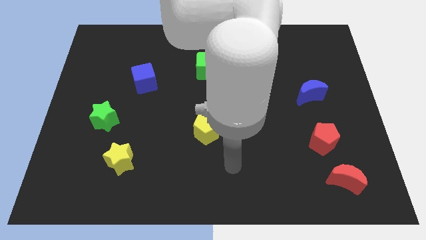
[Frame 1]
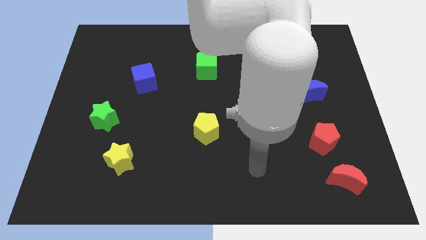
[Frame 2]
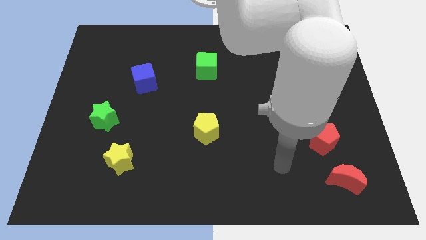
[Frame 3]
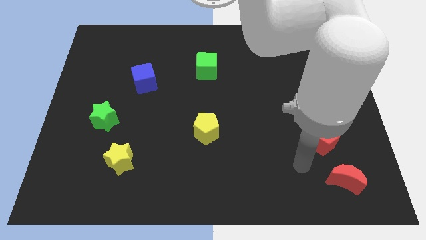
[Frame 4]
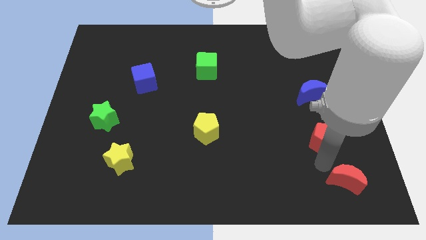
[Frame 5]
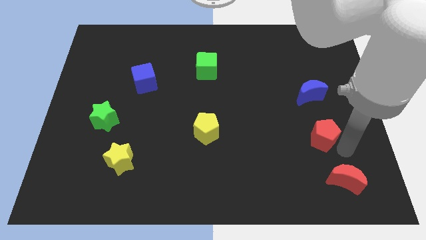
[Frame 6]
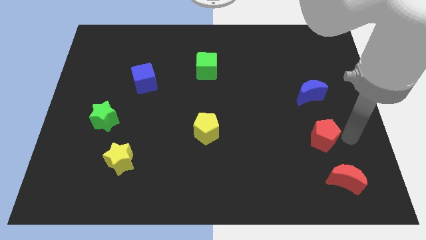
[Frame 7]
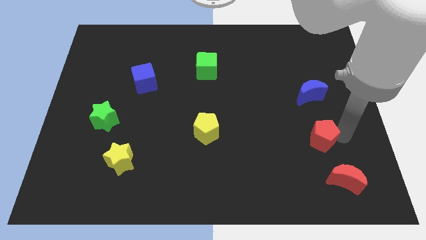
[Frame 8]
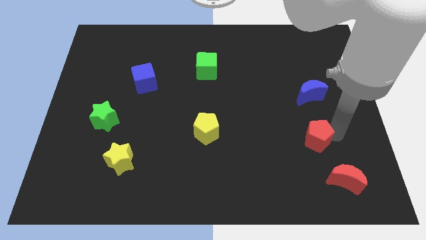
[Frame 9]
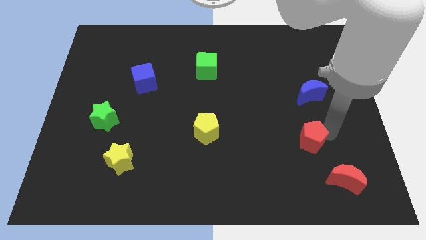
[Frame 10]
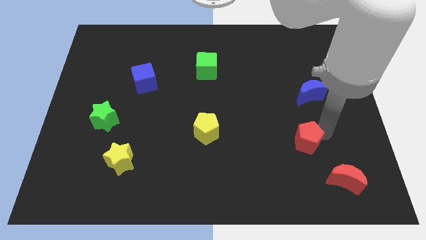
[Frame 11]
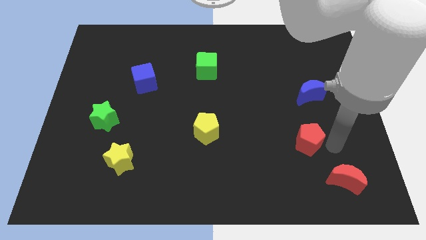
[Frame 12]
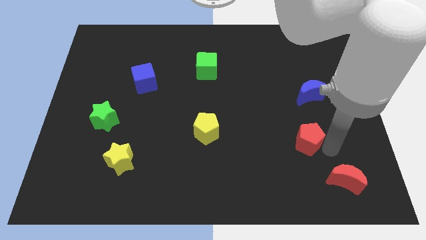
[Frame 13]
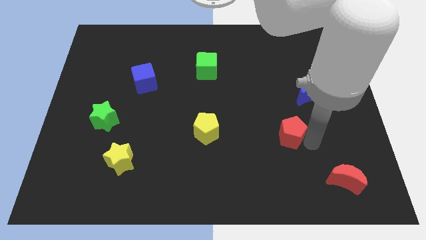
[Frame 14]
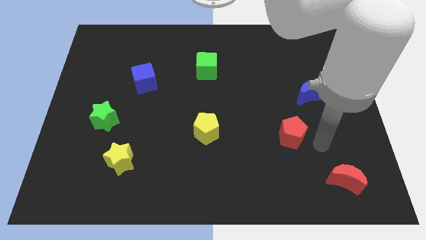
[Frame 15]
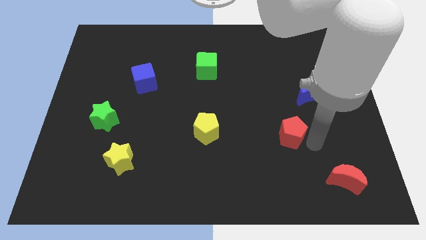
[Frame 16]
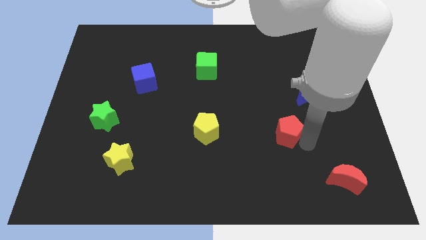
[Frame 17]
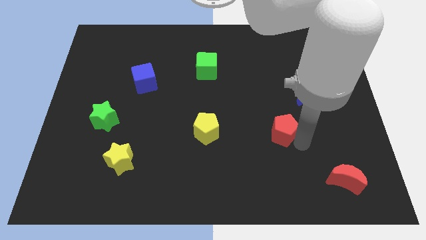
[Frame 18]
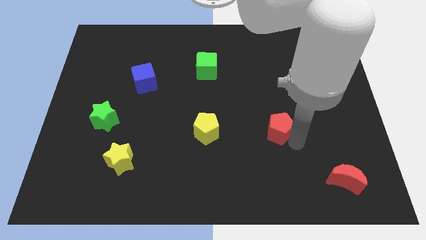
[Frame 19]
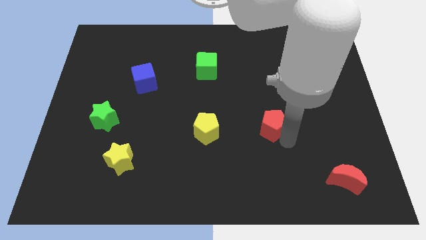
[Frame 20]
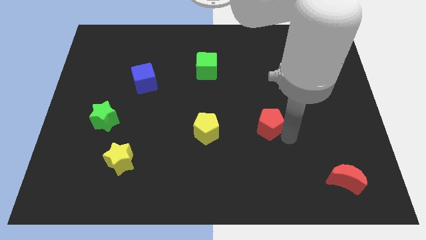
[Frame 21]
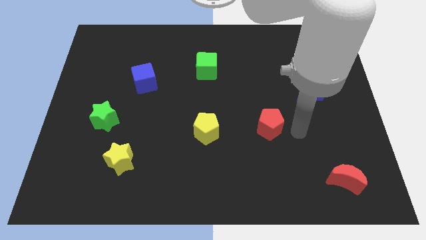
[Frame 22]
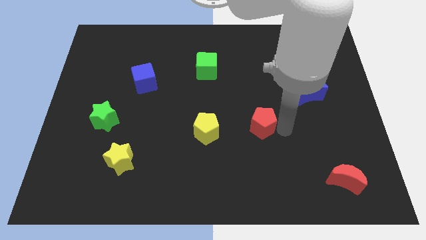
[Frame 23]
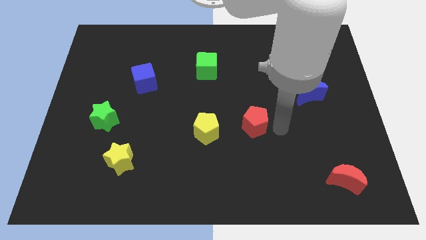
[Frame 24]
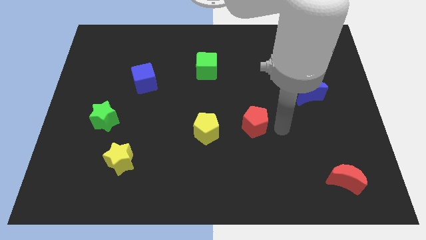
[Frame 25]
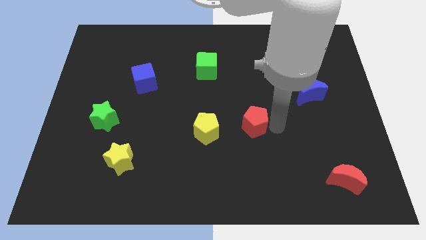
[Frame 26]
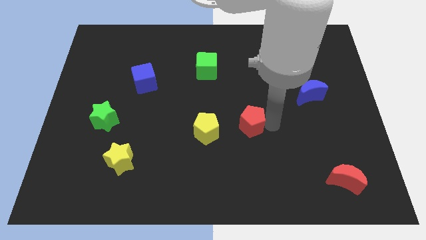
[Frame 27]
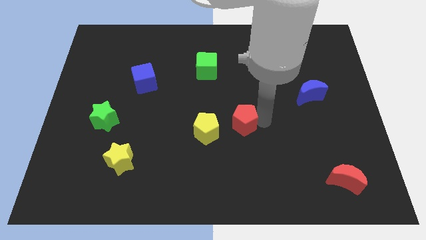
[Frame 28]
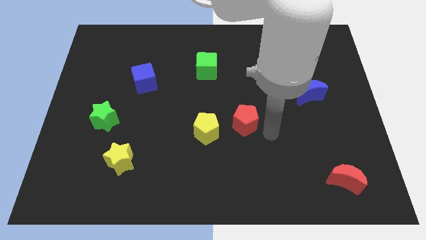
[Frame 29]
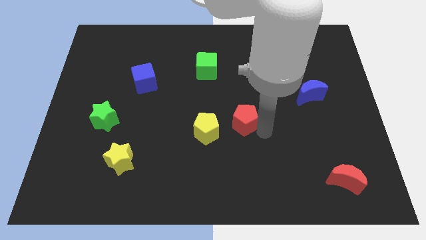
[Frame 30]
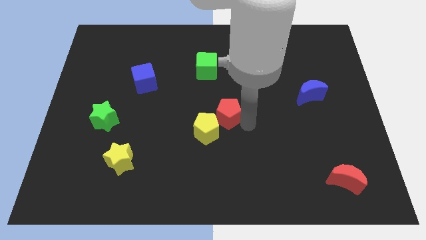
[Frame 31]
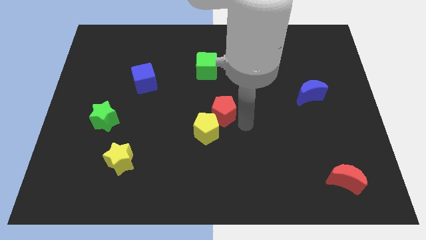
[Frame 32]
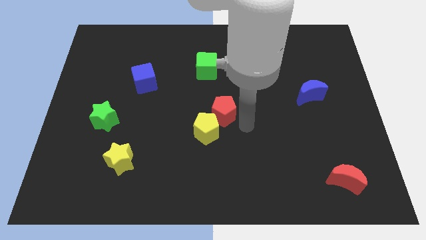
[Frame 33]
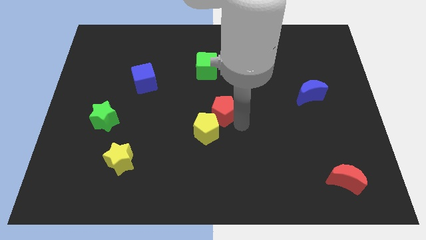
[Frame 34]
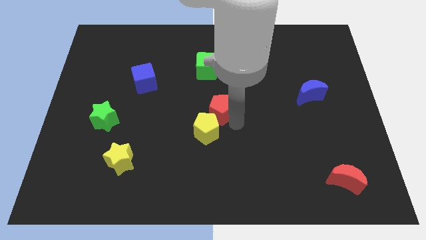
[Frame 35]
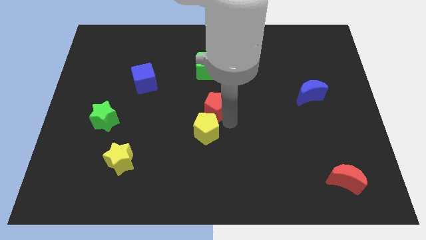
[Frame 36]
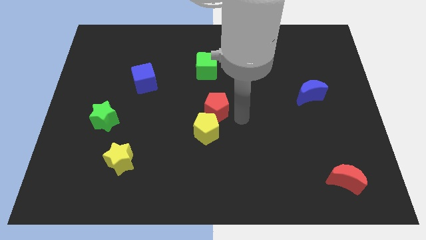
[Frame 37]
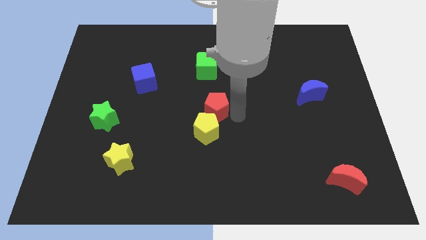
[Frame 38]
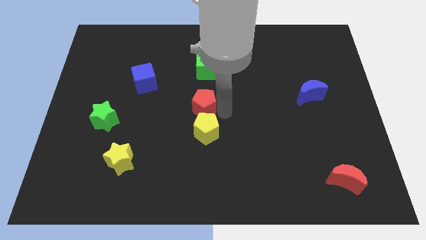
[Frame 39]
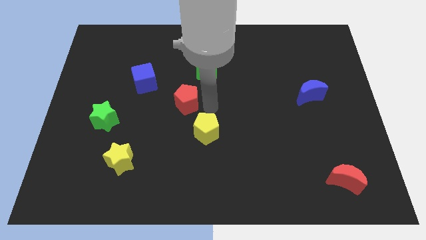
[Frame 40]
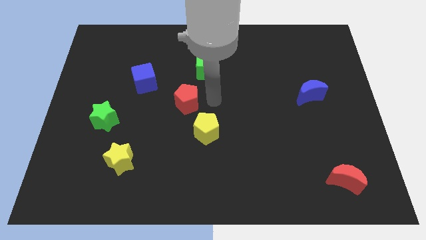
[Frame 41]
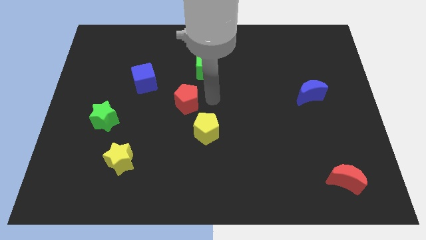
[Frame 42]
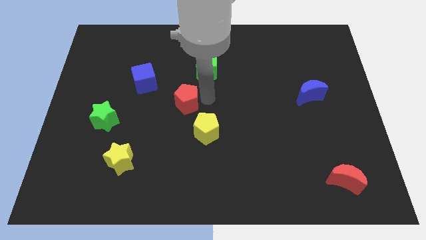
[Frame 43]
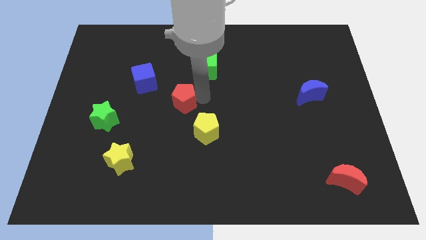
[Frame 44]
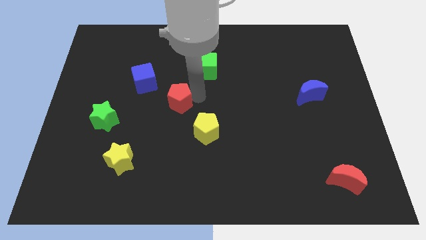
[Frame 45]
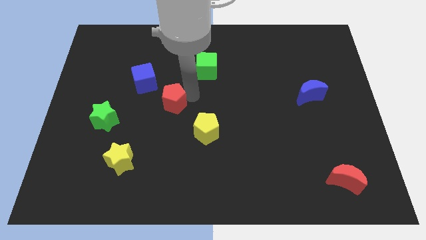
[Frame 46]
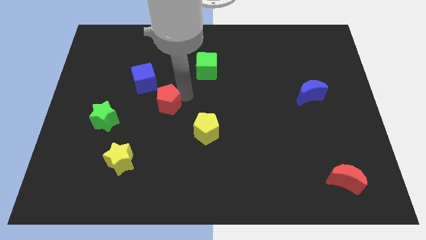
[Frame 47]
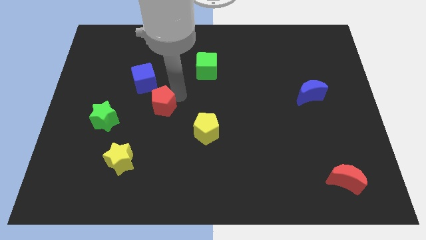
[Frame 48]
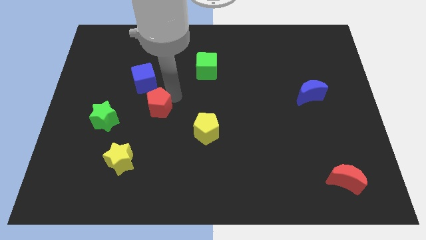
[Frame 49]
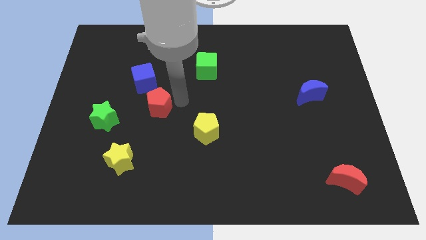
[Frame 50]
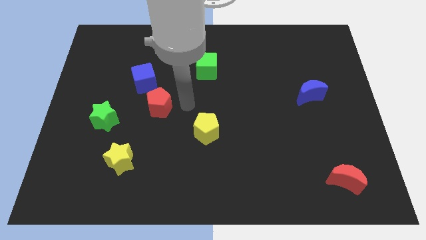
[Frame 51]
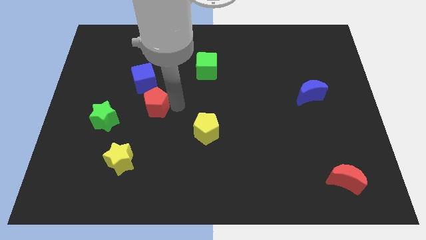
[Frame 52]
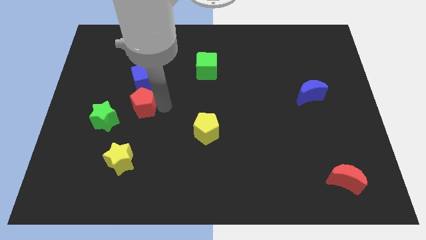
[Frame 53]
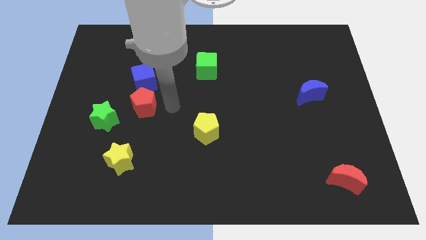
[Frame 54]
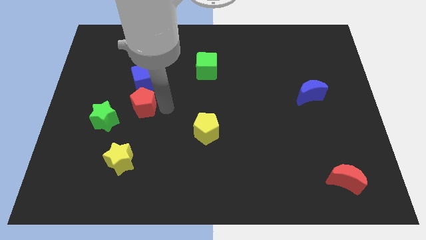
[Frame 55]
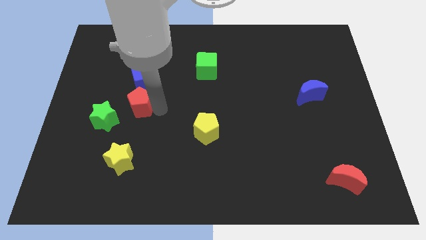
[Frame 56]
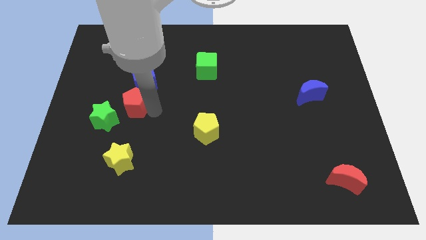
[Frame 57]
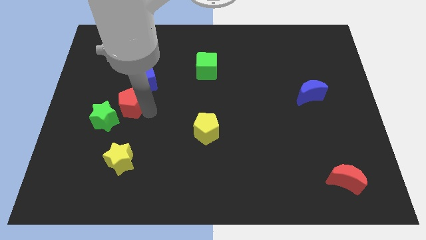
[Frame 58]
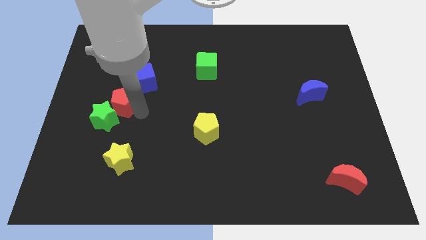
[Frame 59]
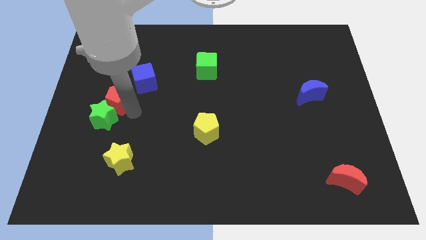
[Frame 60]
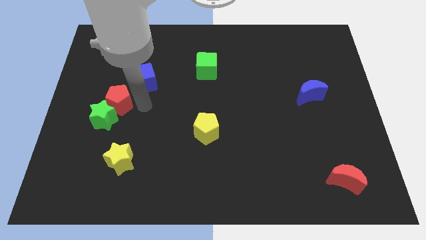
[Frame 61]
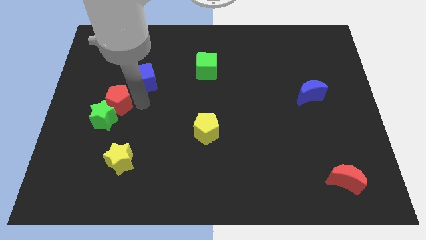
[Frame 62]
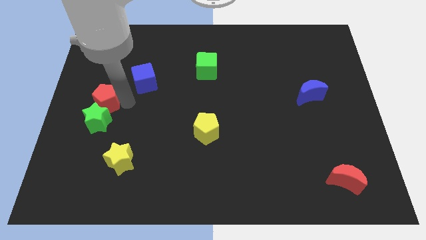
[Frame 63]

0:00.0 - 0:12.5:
slide the red pentagon to the left side of the board

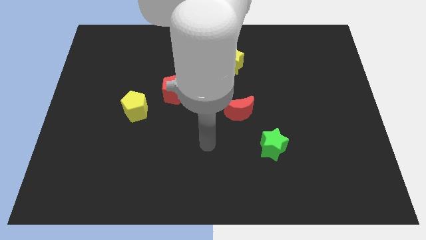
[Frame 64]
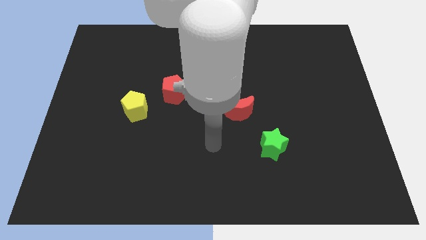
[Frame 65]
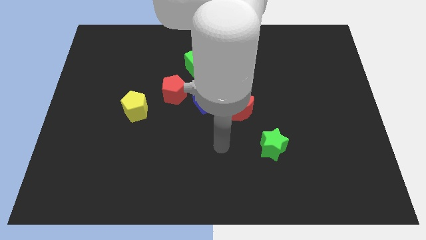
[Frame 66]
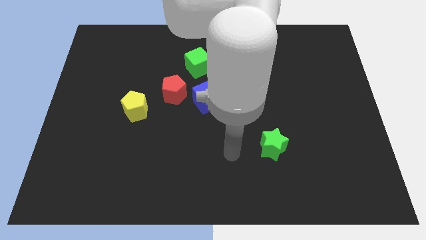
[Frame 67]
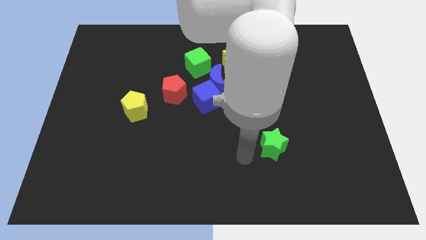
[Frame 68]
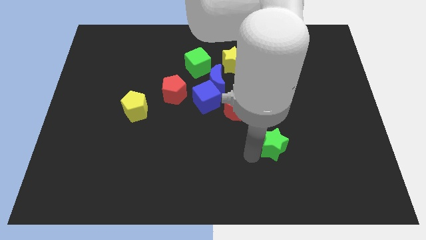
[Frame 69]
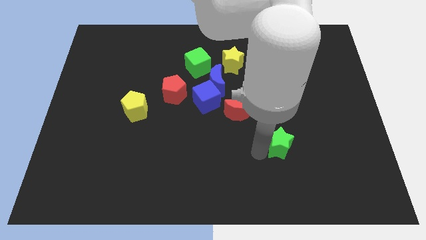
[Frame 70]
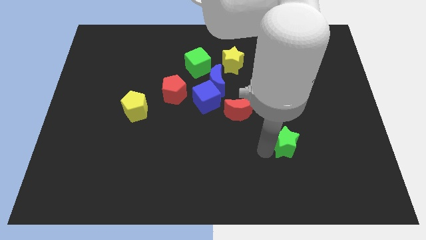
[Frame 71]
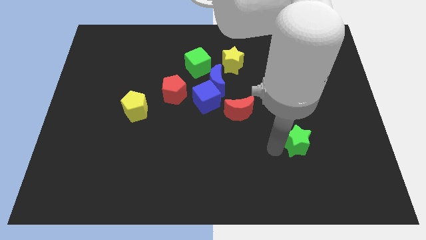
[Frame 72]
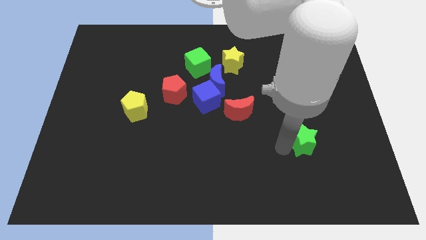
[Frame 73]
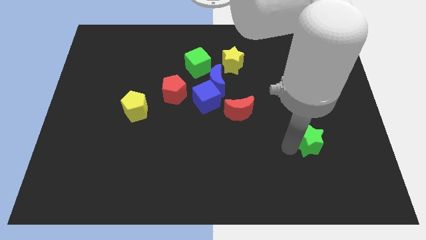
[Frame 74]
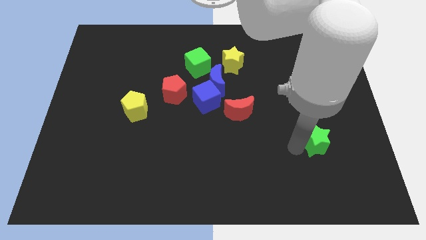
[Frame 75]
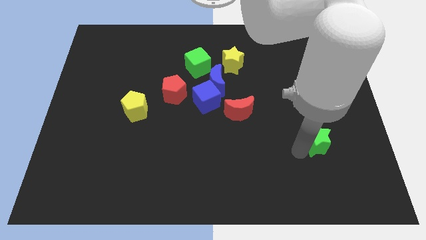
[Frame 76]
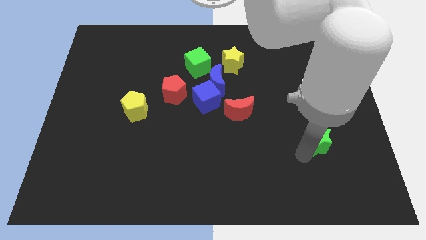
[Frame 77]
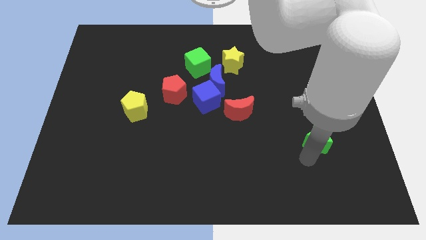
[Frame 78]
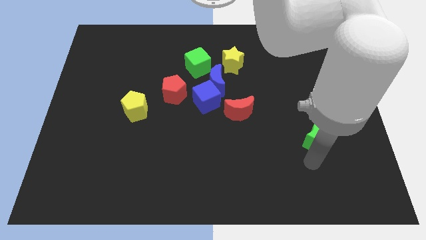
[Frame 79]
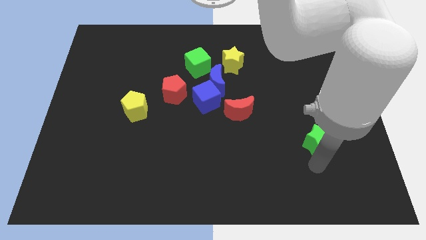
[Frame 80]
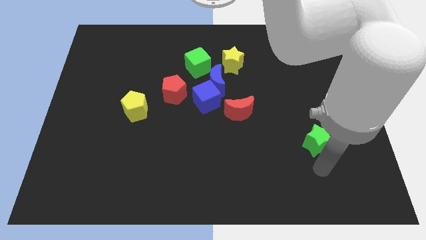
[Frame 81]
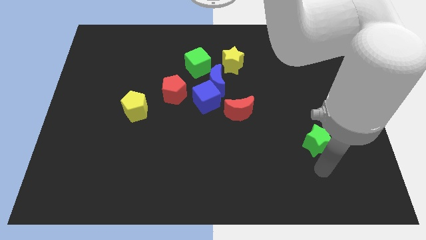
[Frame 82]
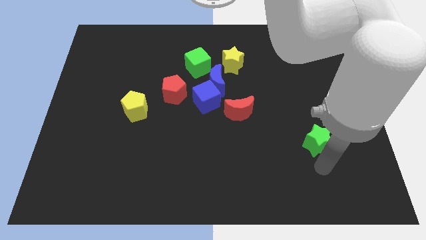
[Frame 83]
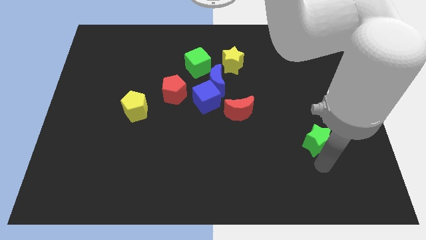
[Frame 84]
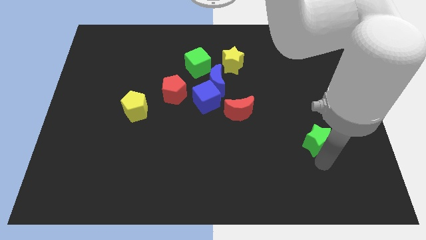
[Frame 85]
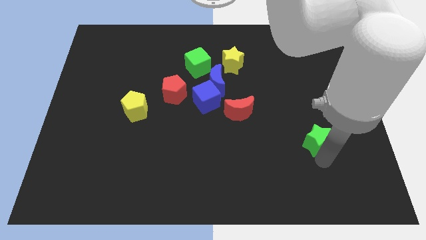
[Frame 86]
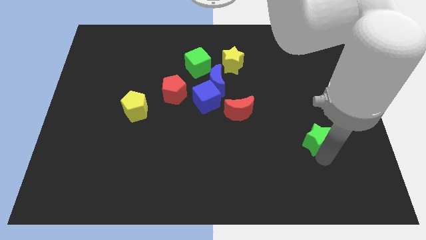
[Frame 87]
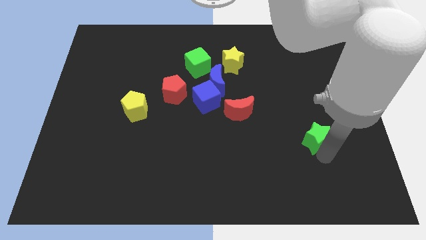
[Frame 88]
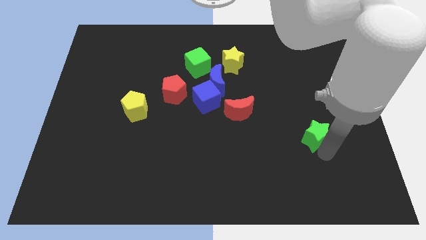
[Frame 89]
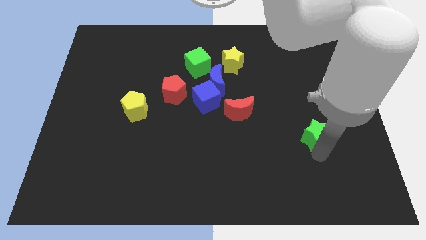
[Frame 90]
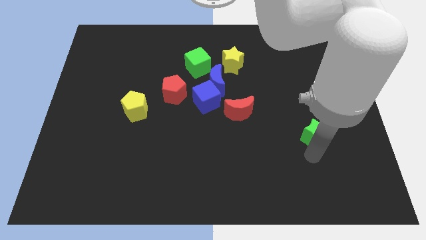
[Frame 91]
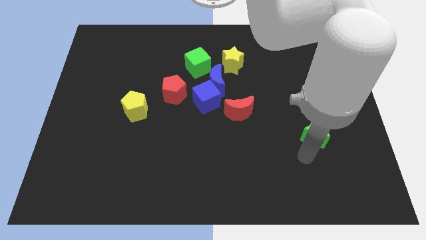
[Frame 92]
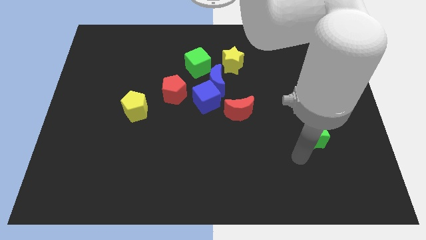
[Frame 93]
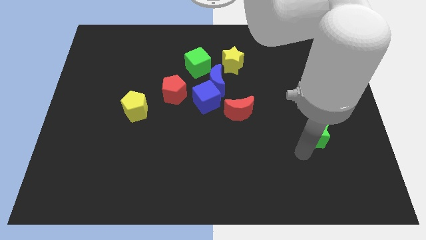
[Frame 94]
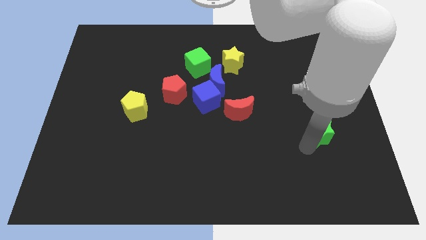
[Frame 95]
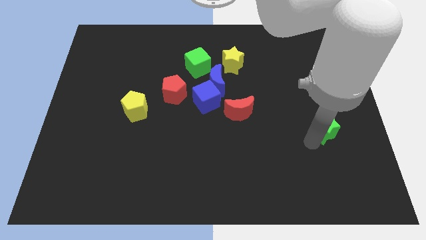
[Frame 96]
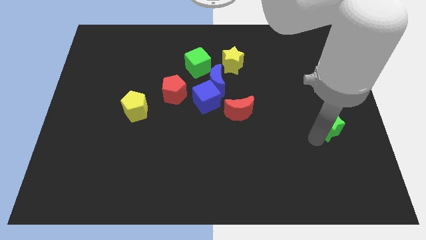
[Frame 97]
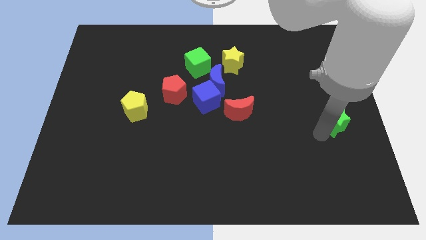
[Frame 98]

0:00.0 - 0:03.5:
put the green star to the center right
